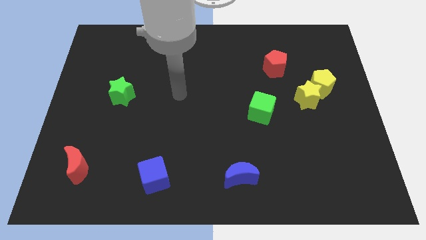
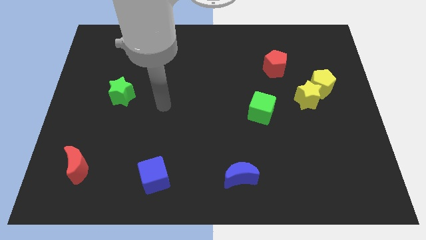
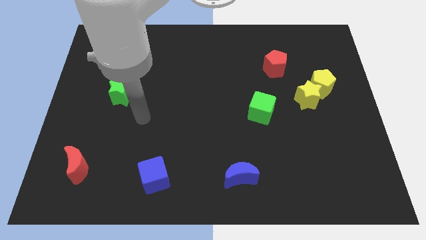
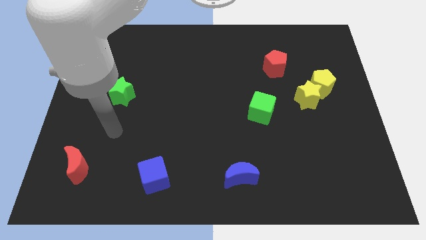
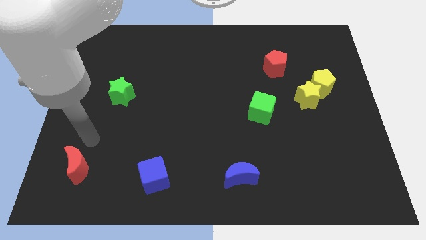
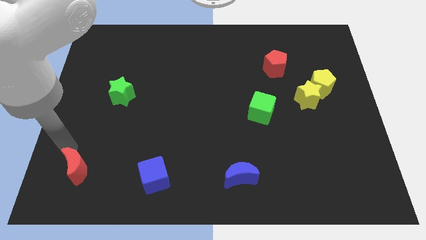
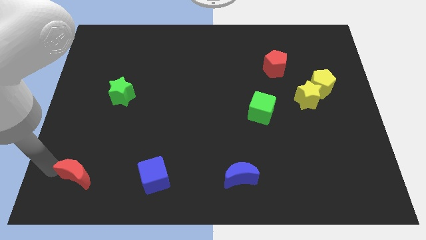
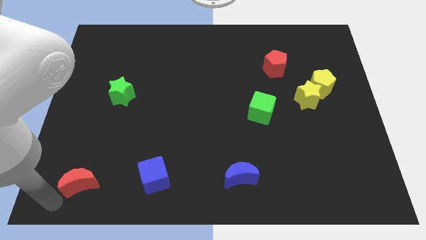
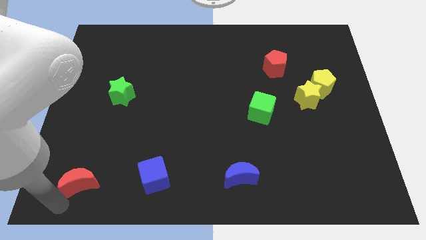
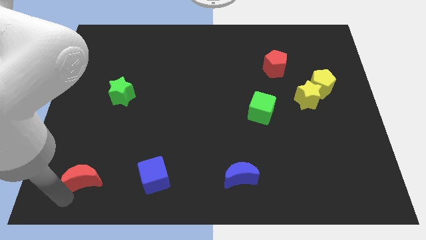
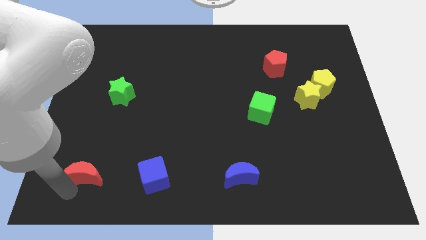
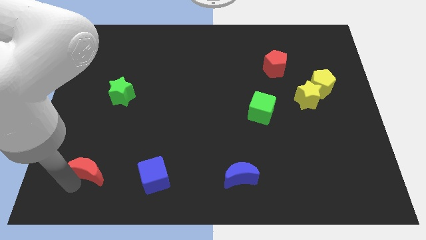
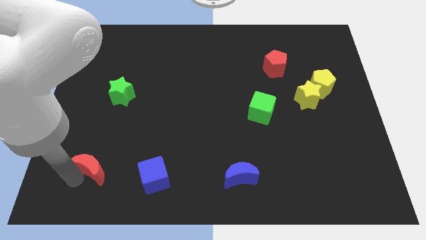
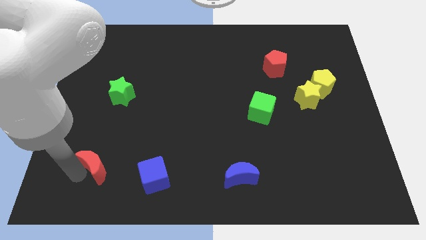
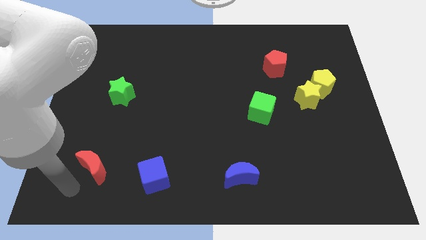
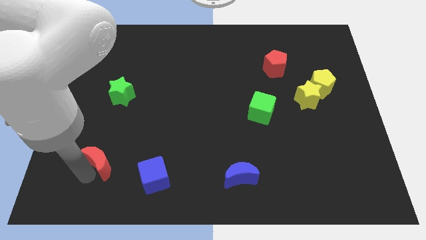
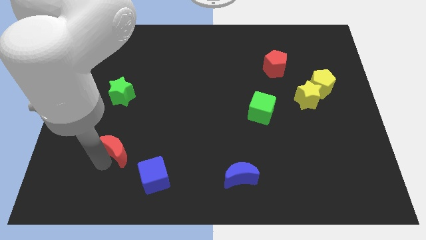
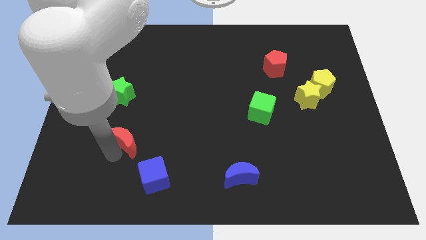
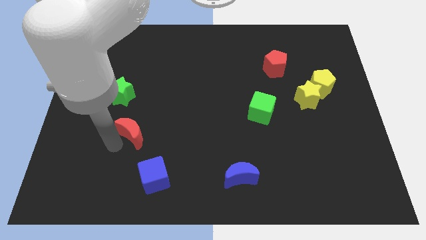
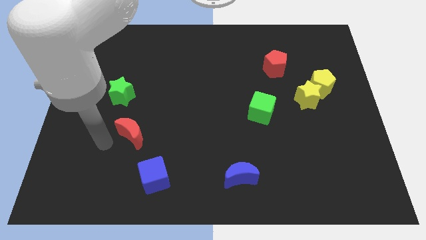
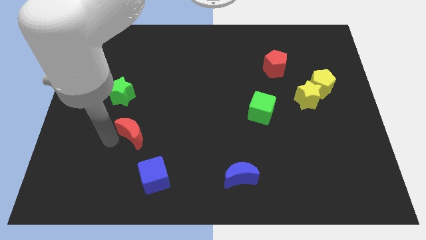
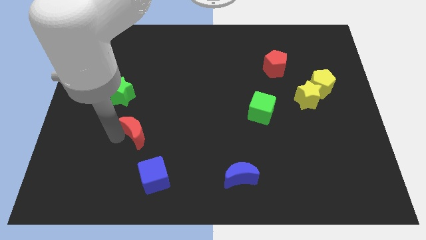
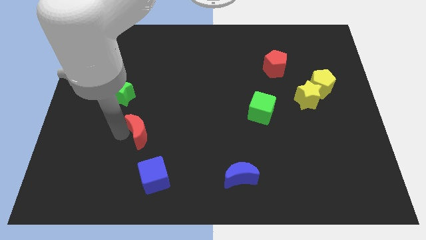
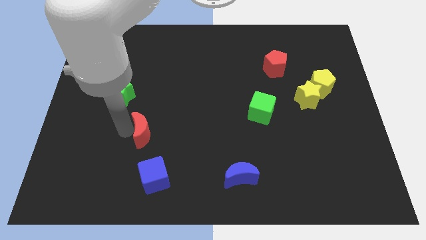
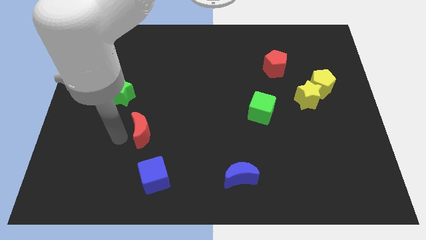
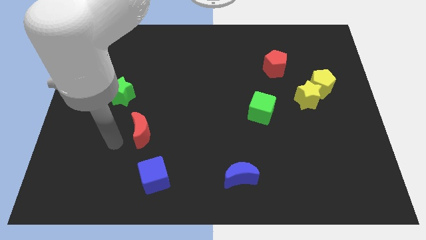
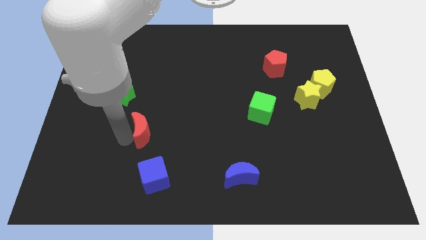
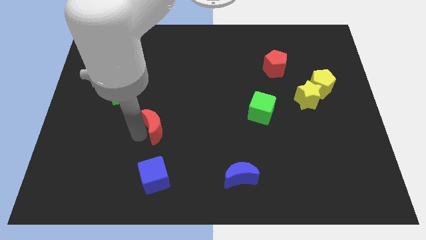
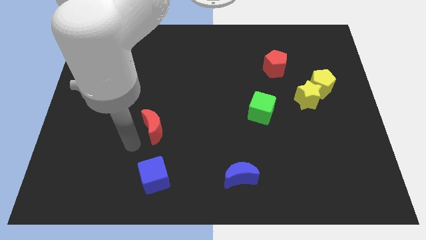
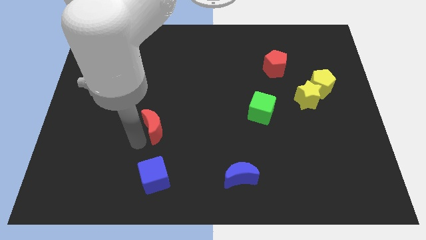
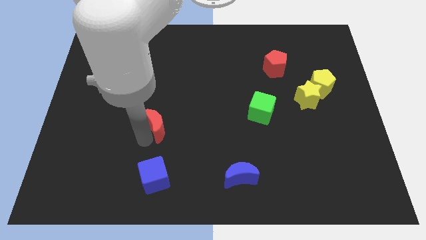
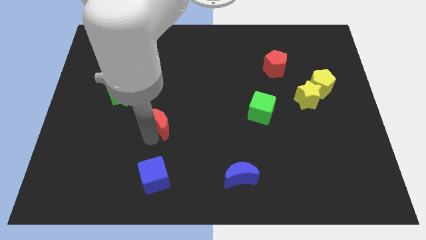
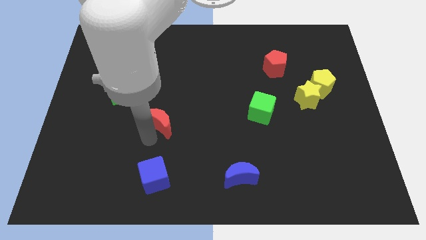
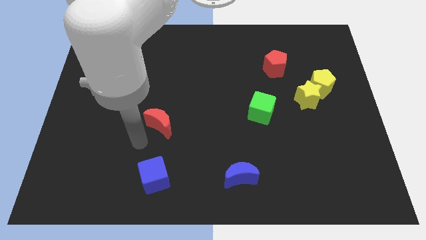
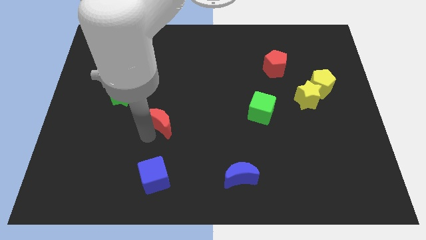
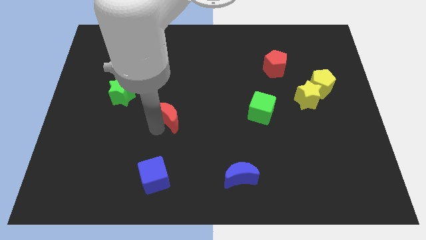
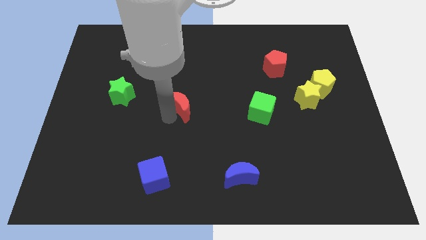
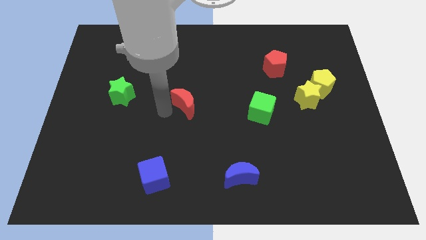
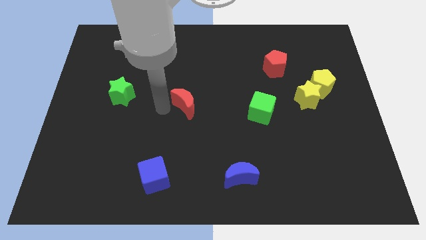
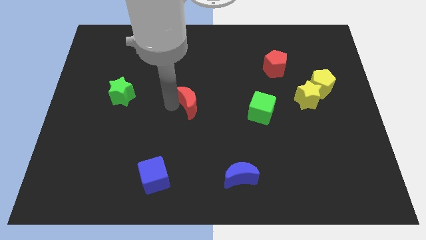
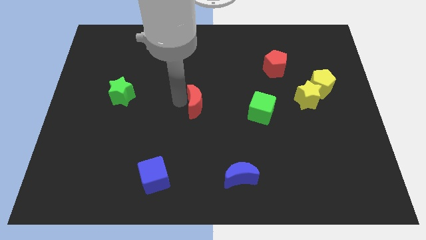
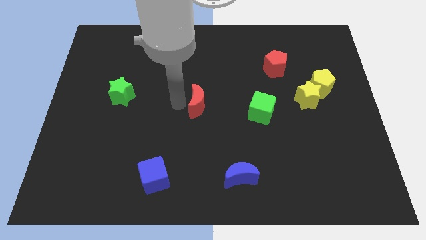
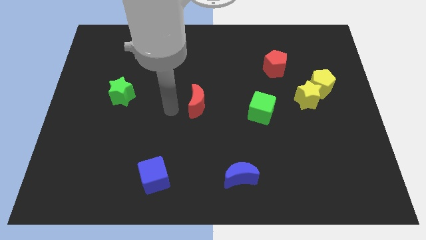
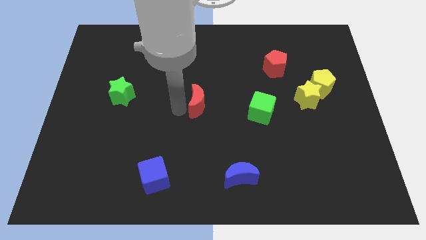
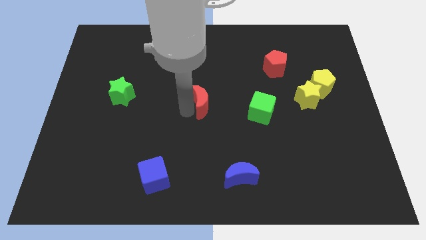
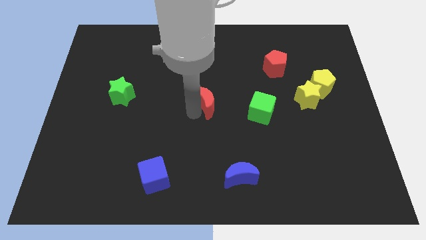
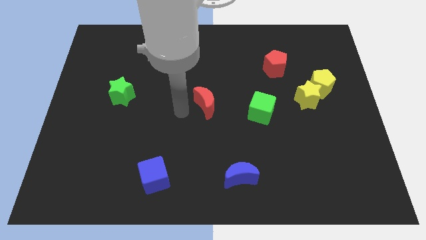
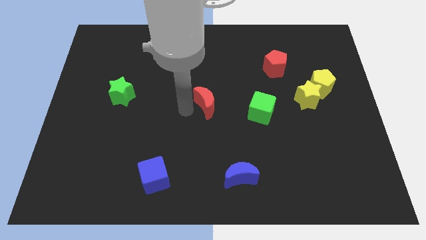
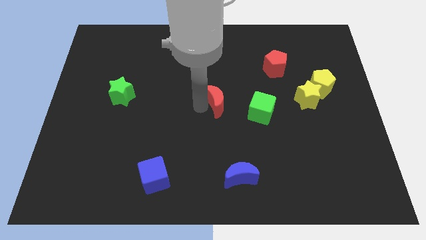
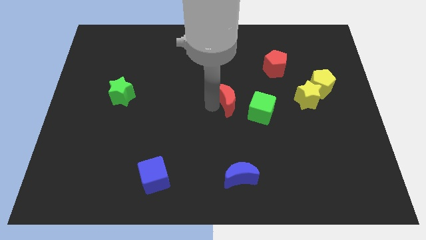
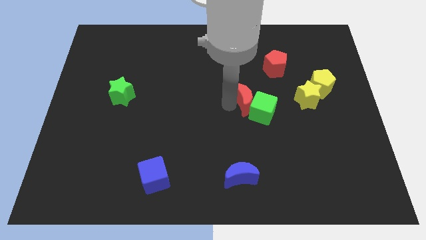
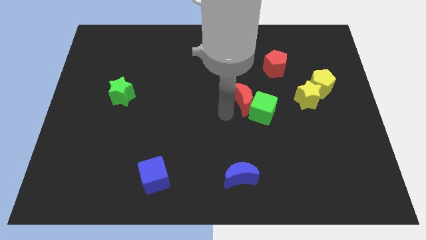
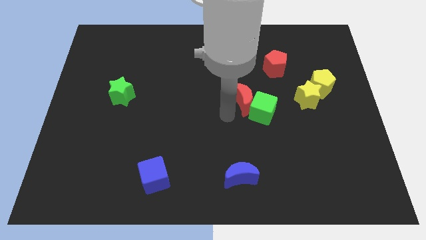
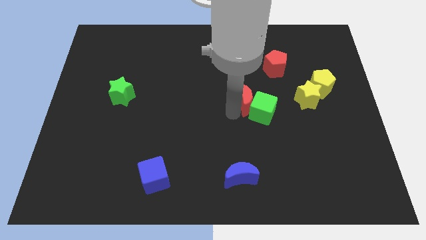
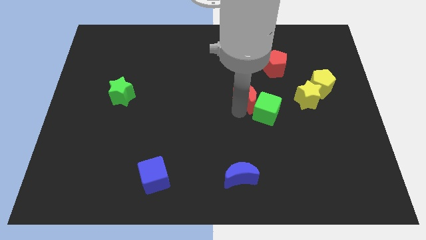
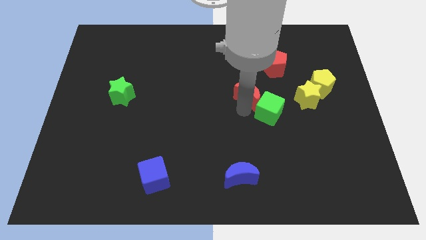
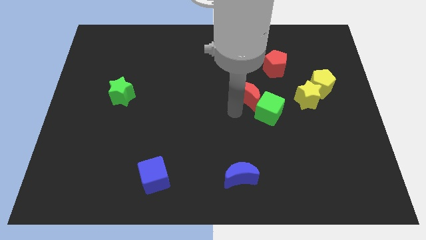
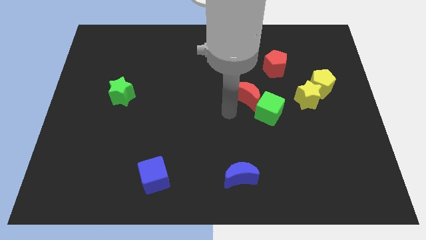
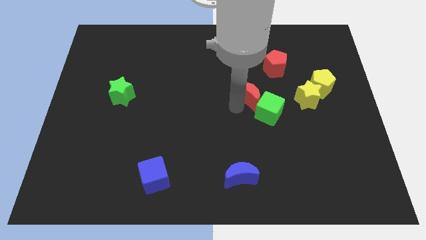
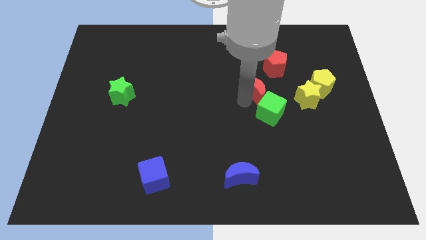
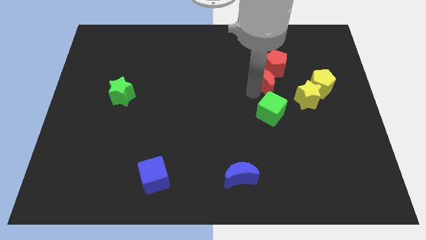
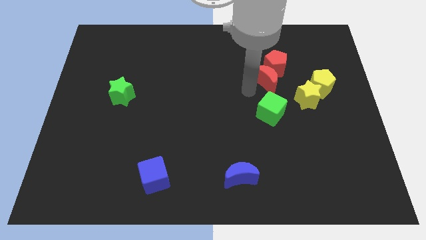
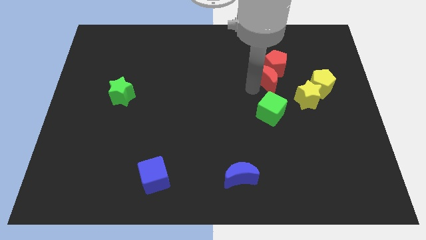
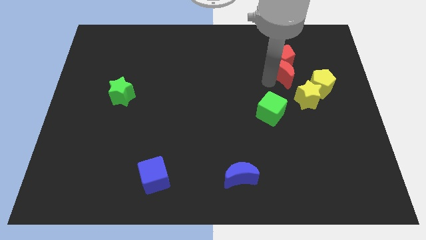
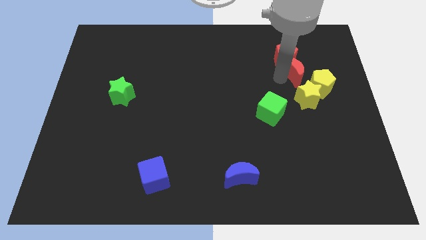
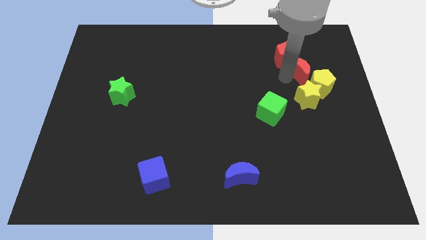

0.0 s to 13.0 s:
put the red moon to the top of the yellow pentagon
